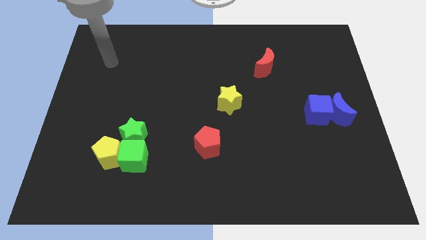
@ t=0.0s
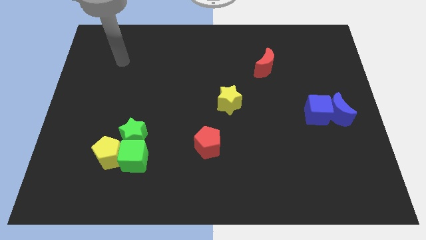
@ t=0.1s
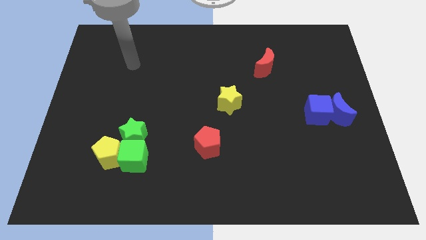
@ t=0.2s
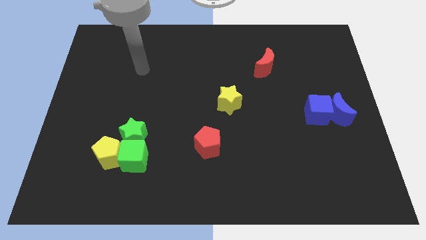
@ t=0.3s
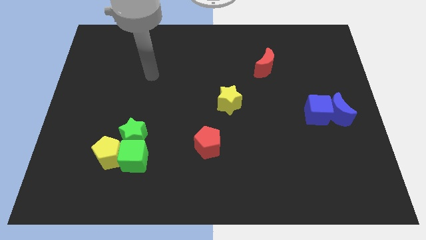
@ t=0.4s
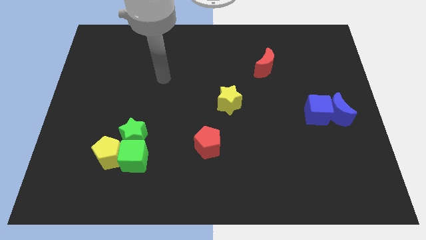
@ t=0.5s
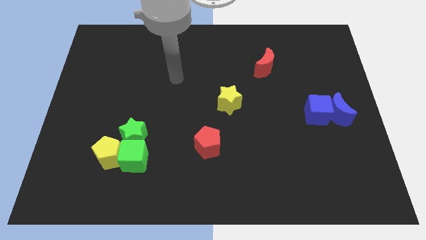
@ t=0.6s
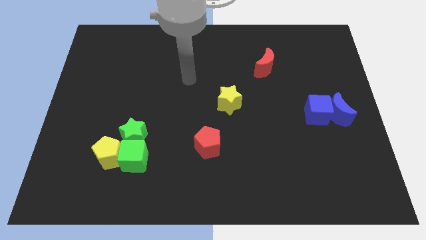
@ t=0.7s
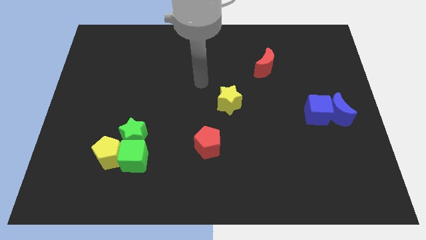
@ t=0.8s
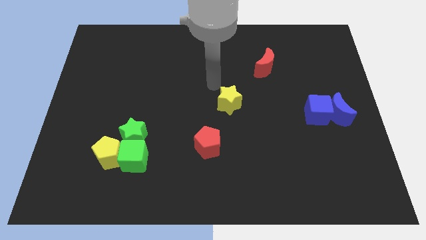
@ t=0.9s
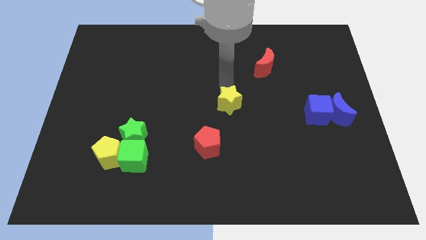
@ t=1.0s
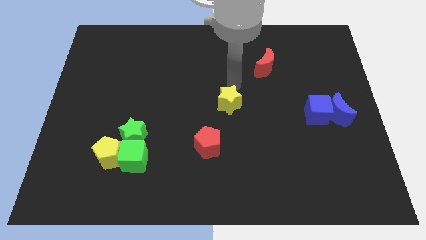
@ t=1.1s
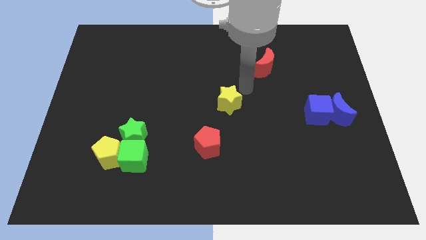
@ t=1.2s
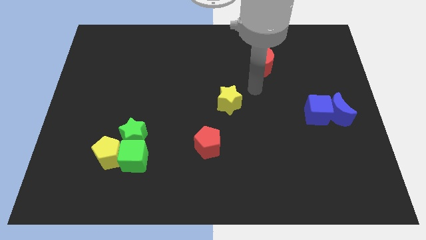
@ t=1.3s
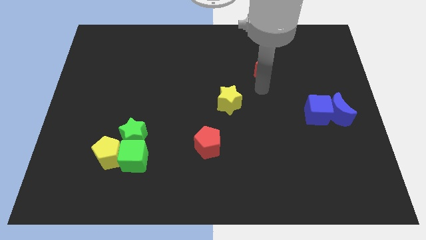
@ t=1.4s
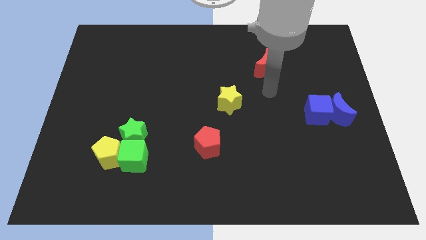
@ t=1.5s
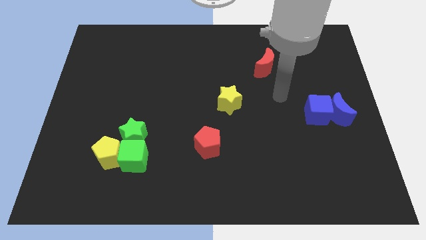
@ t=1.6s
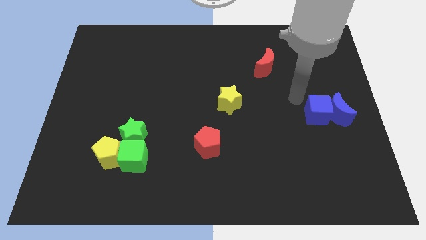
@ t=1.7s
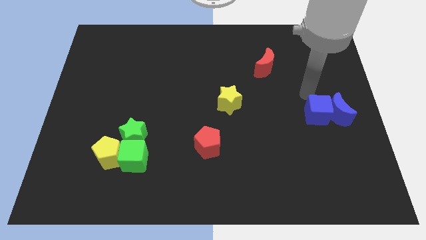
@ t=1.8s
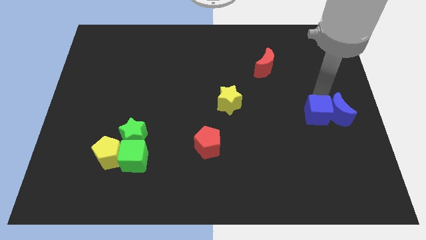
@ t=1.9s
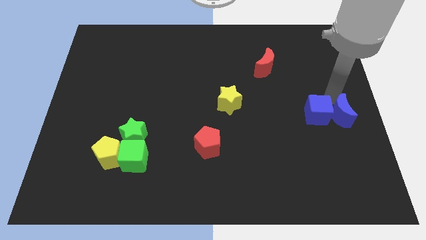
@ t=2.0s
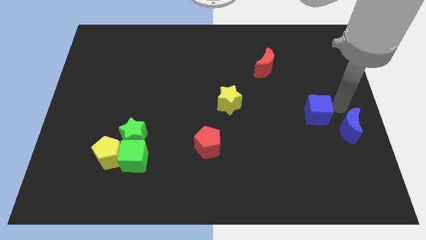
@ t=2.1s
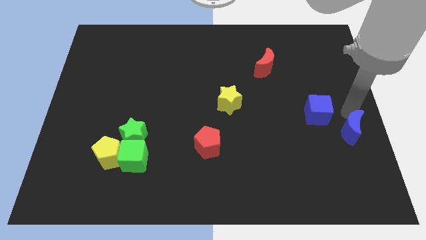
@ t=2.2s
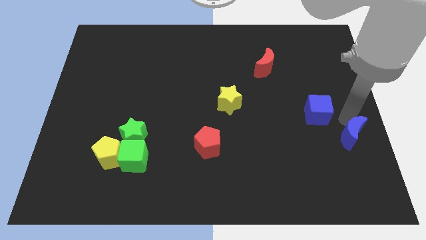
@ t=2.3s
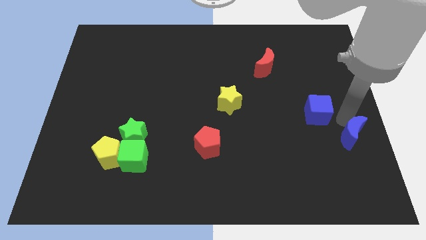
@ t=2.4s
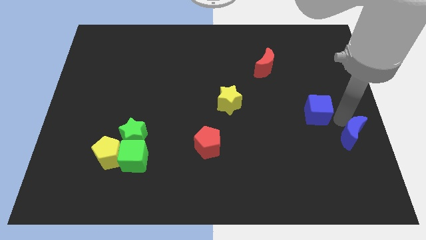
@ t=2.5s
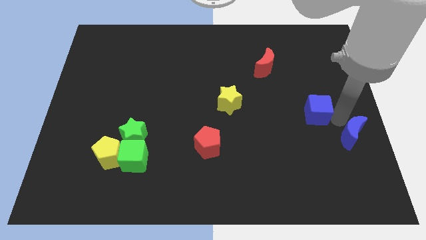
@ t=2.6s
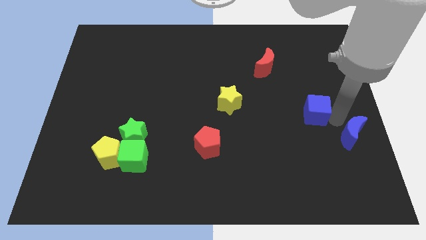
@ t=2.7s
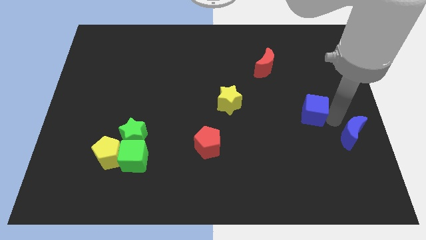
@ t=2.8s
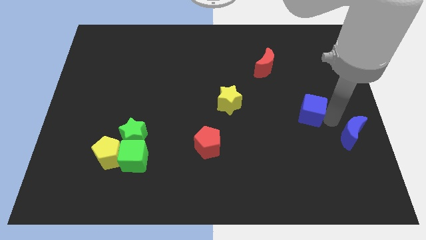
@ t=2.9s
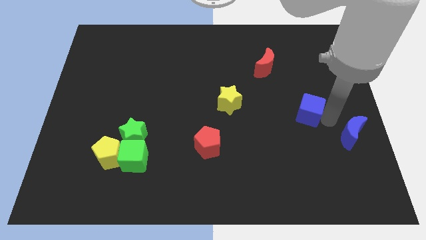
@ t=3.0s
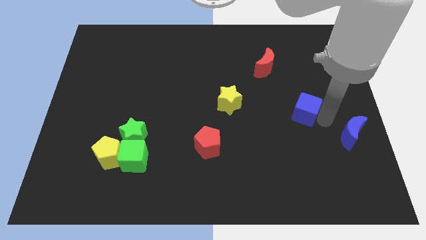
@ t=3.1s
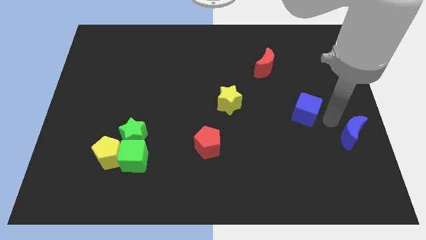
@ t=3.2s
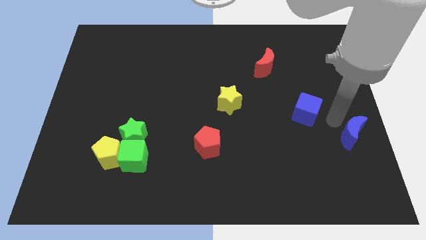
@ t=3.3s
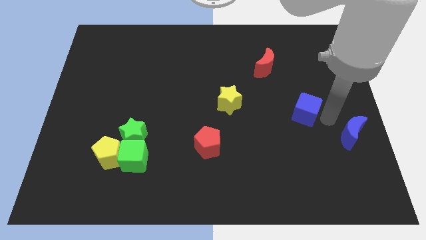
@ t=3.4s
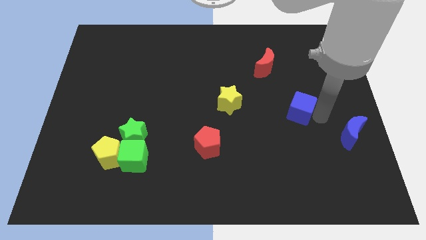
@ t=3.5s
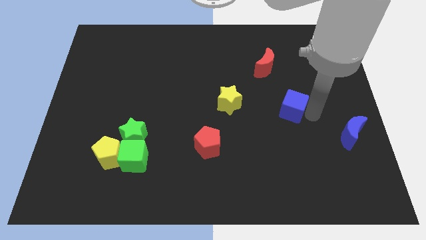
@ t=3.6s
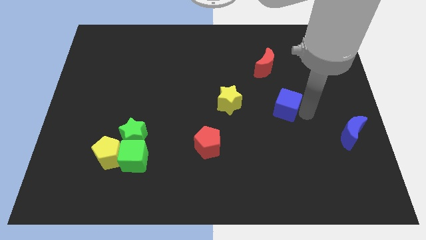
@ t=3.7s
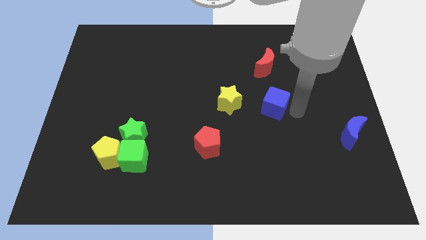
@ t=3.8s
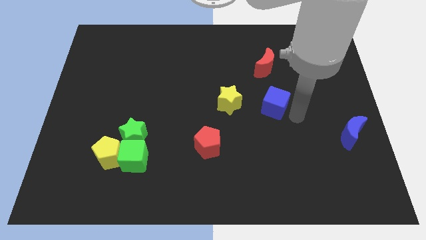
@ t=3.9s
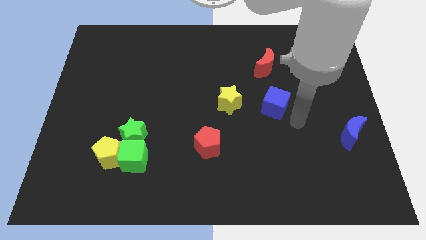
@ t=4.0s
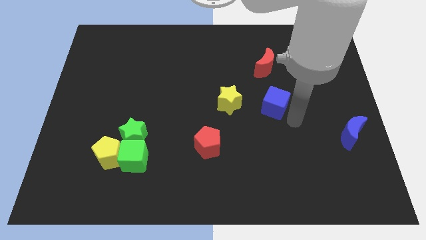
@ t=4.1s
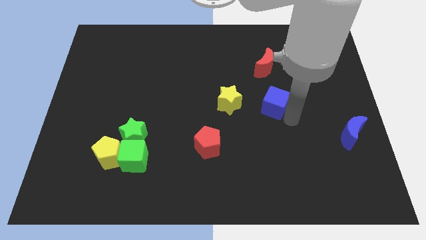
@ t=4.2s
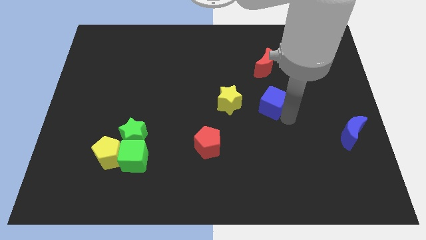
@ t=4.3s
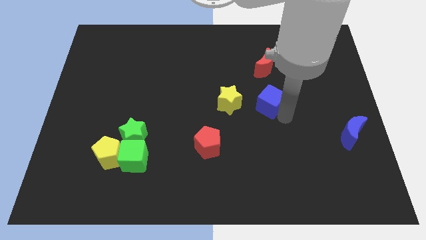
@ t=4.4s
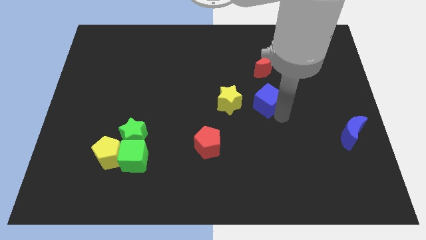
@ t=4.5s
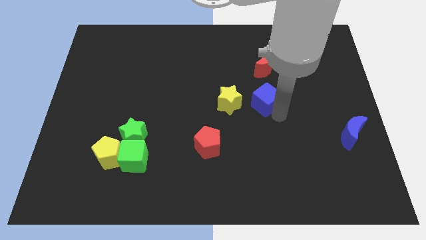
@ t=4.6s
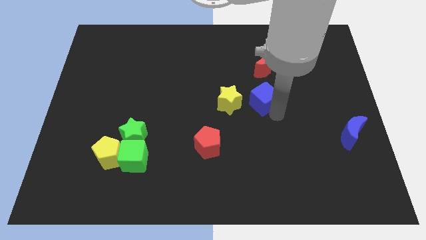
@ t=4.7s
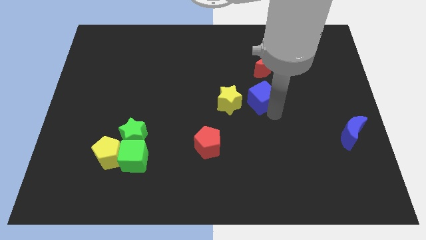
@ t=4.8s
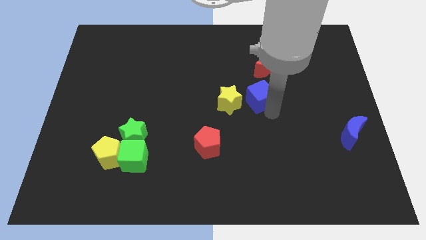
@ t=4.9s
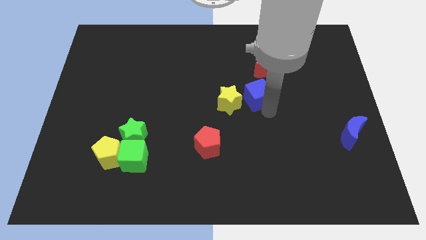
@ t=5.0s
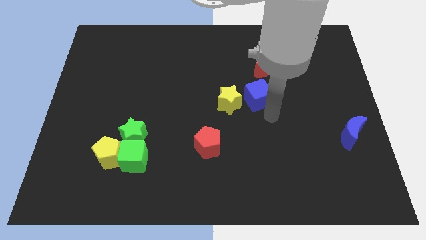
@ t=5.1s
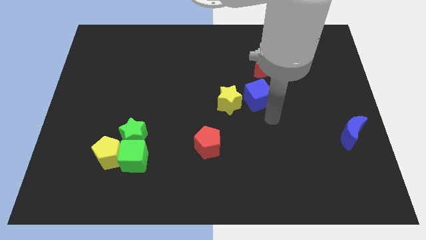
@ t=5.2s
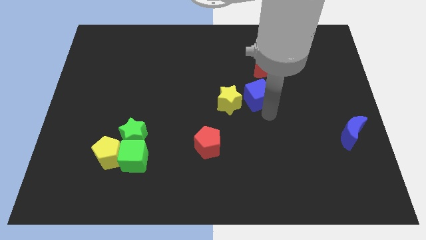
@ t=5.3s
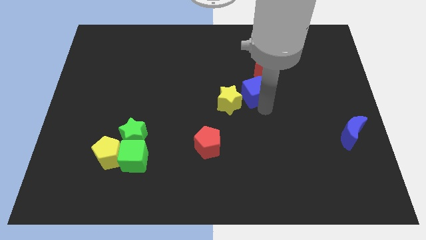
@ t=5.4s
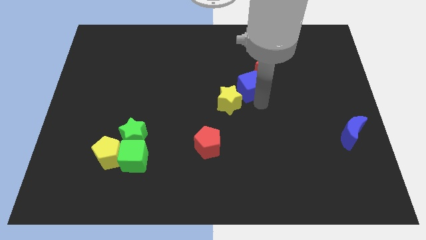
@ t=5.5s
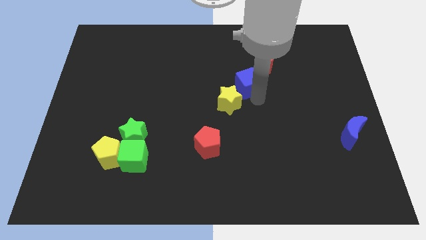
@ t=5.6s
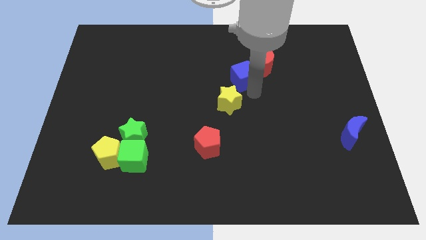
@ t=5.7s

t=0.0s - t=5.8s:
push the blue cube left of the red moon
